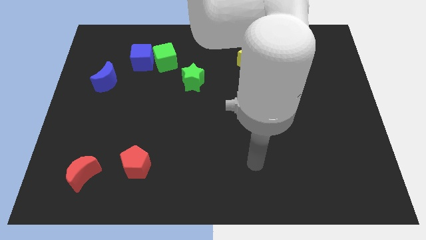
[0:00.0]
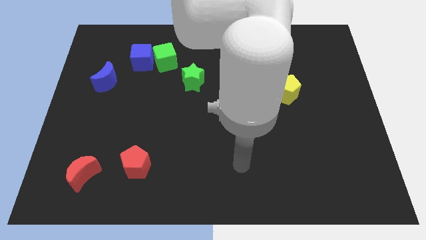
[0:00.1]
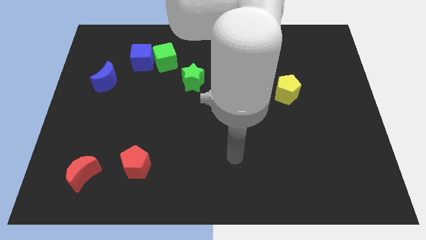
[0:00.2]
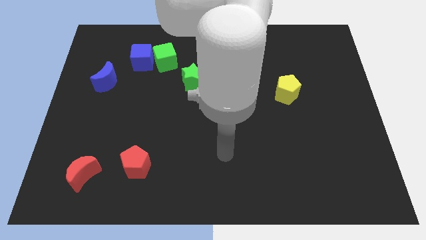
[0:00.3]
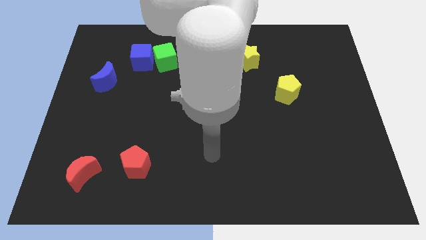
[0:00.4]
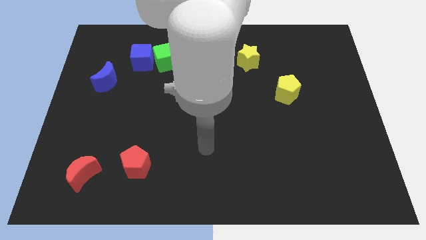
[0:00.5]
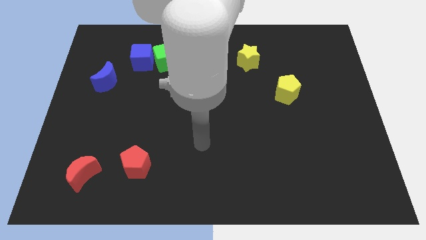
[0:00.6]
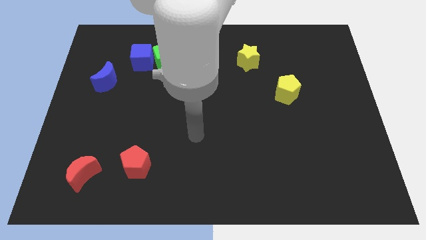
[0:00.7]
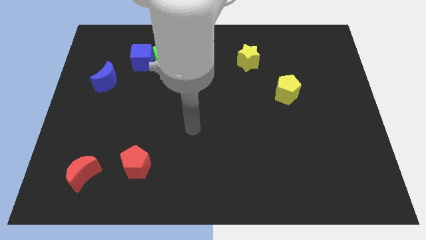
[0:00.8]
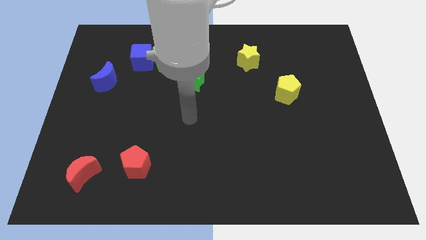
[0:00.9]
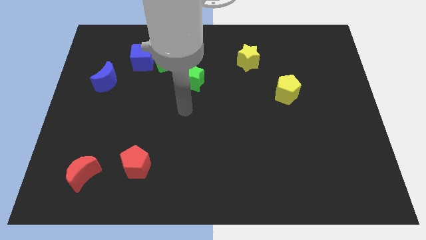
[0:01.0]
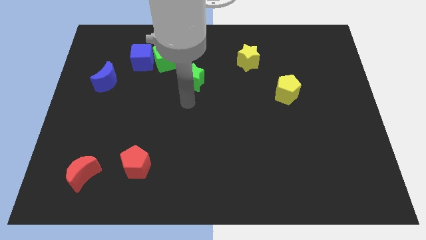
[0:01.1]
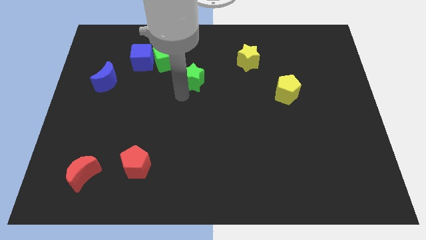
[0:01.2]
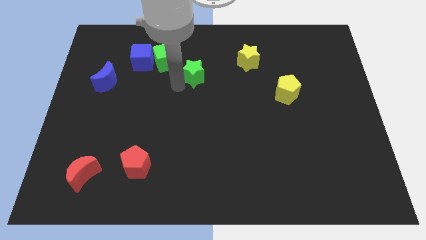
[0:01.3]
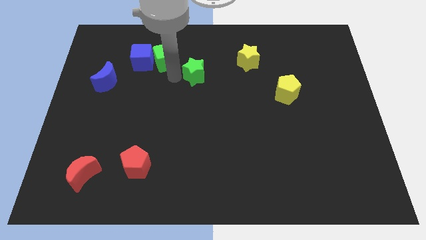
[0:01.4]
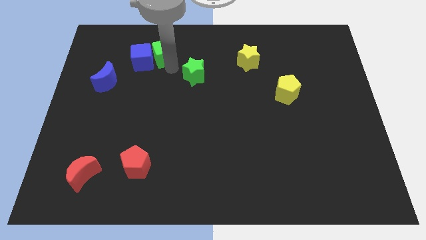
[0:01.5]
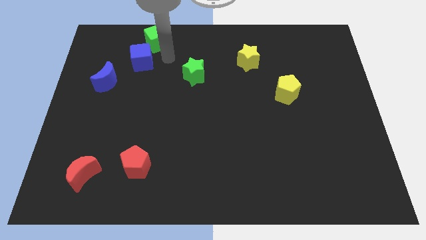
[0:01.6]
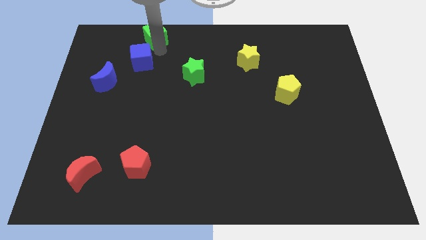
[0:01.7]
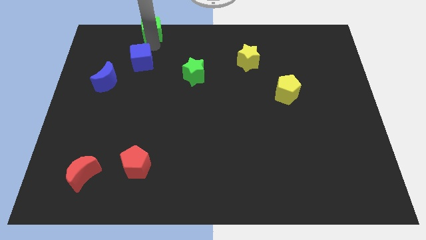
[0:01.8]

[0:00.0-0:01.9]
pull the blue cube apart from the green cube

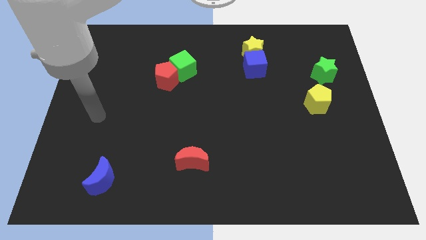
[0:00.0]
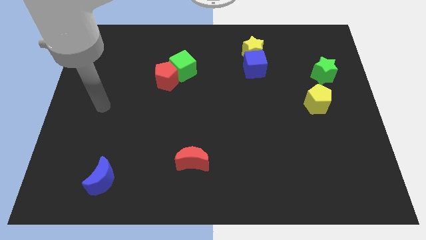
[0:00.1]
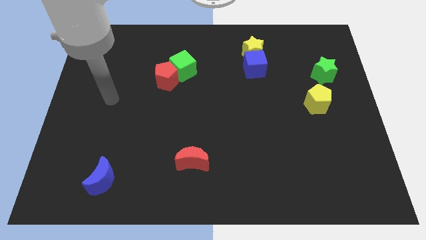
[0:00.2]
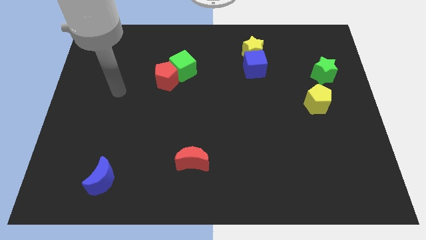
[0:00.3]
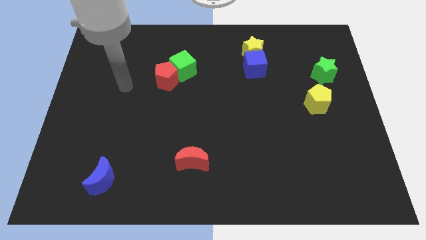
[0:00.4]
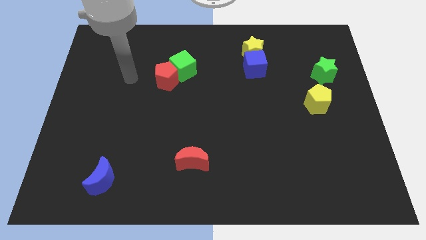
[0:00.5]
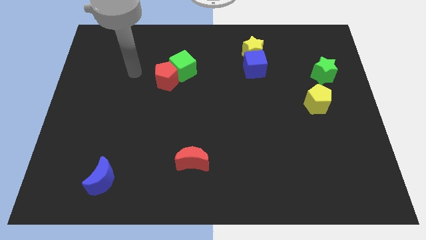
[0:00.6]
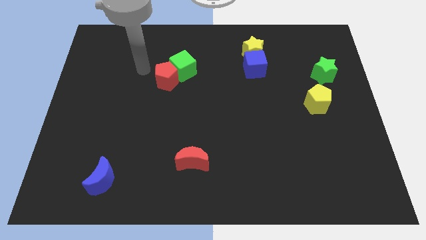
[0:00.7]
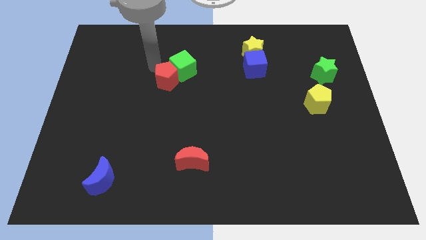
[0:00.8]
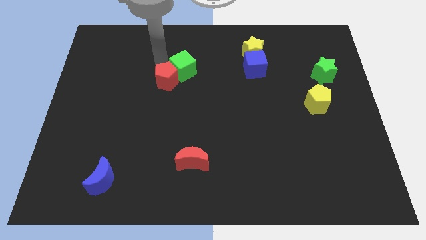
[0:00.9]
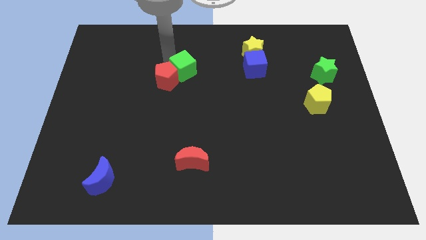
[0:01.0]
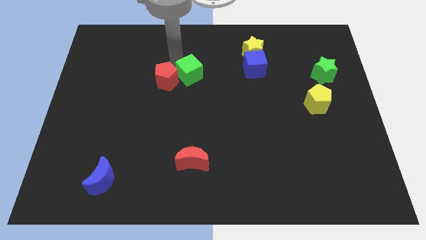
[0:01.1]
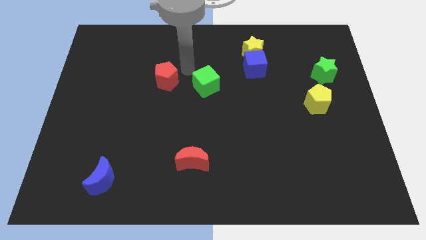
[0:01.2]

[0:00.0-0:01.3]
pull the red pentagon apart from the green cube

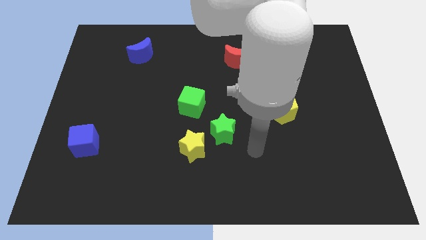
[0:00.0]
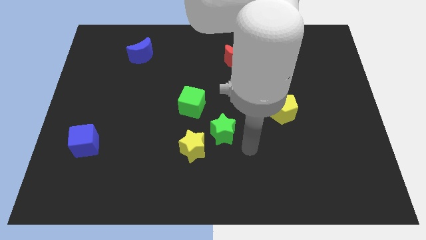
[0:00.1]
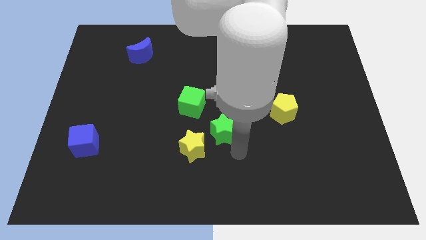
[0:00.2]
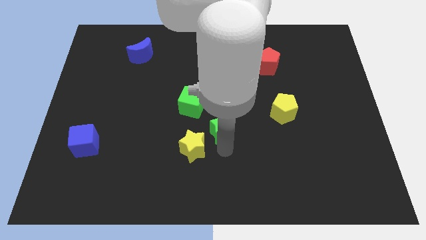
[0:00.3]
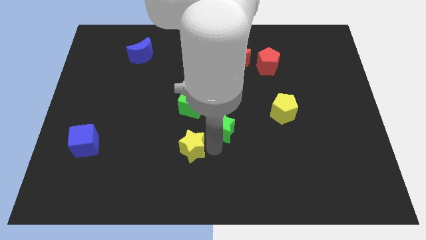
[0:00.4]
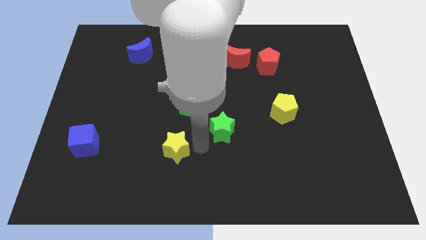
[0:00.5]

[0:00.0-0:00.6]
pull the green star apart from the yellow star

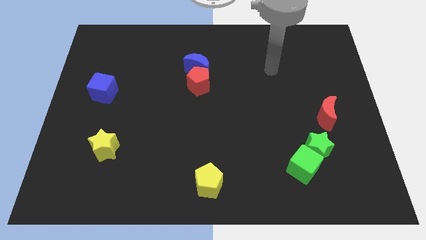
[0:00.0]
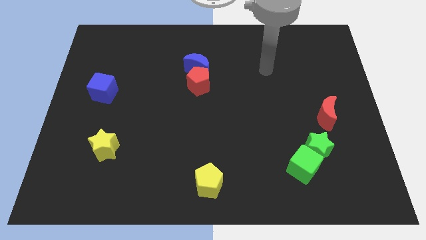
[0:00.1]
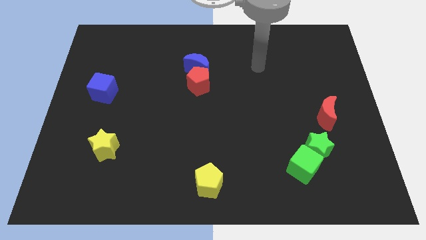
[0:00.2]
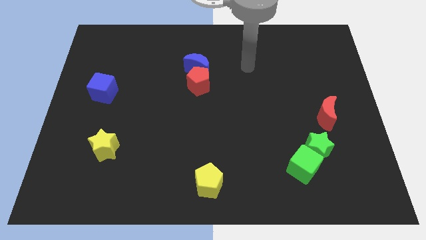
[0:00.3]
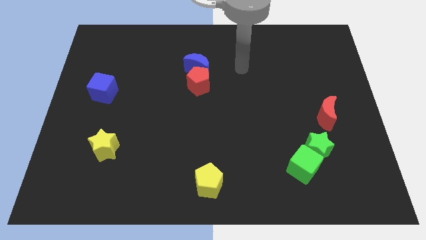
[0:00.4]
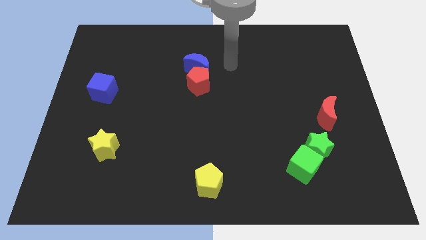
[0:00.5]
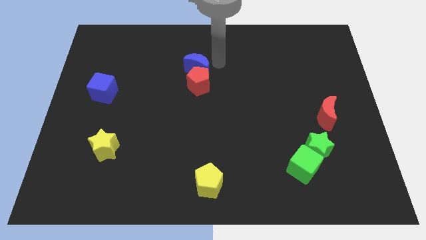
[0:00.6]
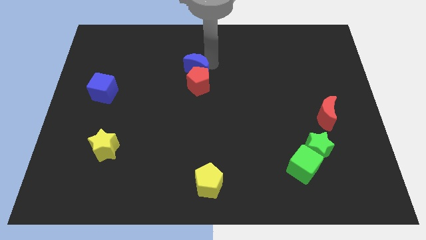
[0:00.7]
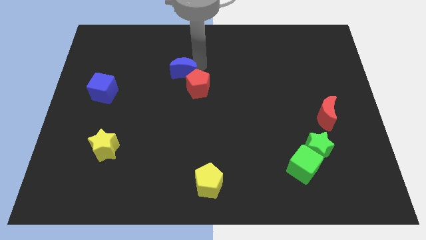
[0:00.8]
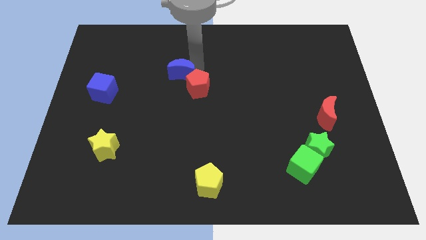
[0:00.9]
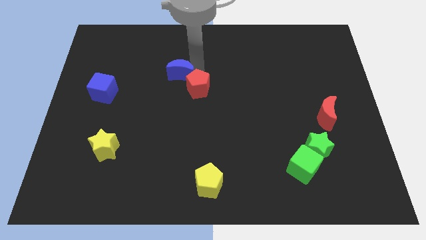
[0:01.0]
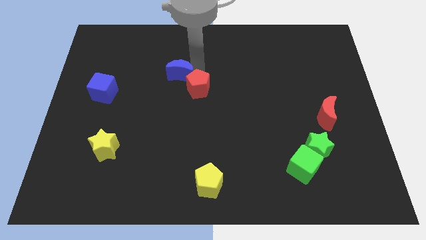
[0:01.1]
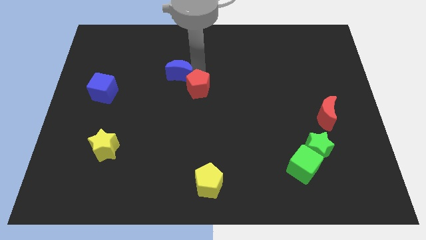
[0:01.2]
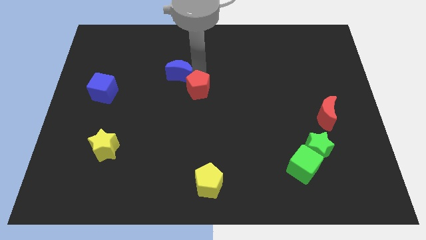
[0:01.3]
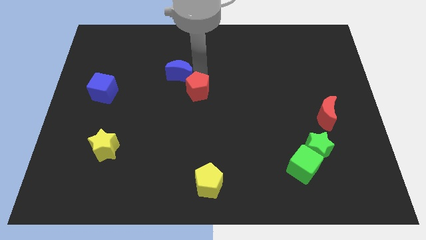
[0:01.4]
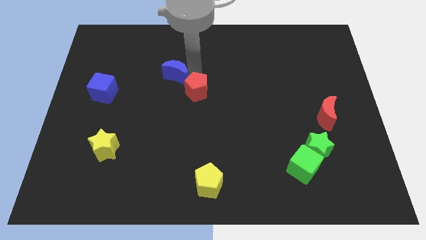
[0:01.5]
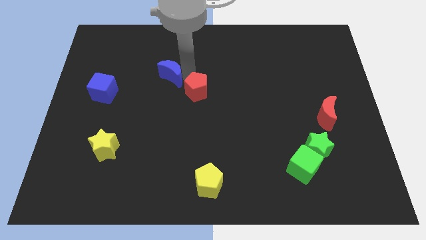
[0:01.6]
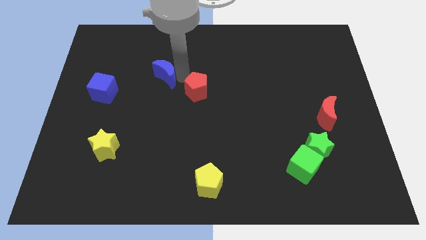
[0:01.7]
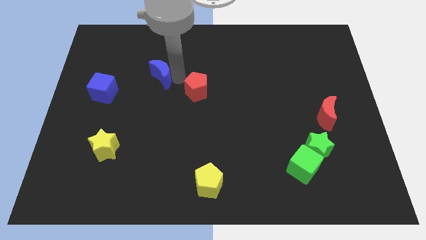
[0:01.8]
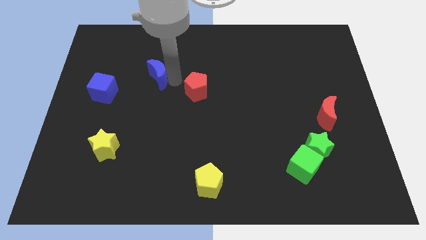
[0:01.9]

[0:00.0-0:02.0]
move the red pentagon away from the blue moon

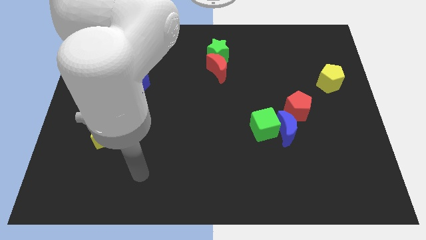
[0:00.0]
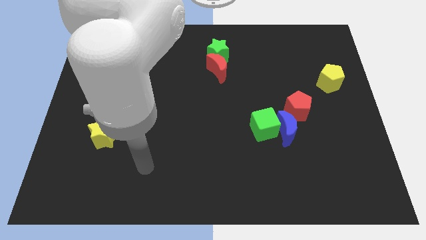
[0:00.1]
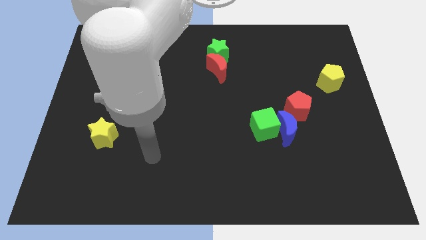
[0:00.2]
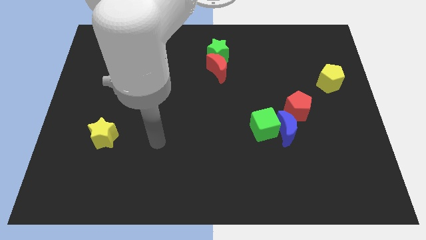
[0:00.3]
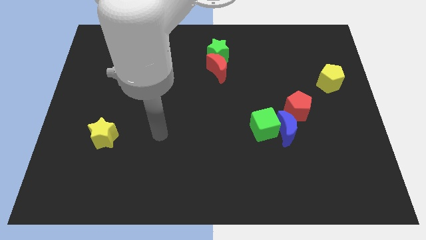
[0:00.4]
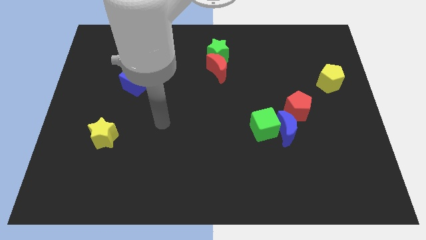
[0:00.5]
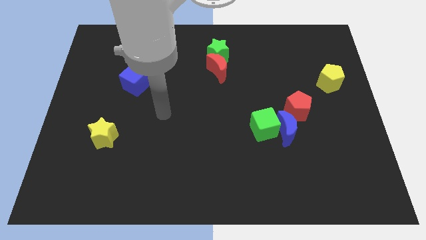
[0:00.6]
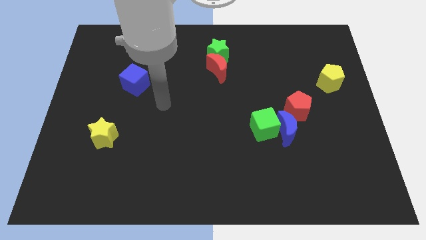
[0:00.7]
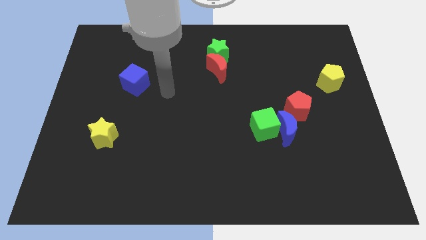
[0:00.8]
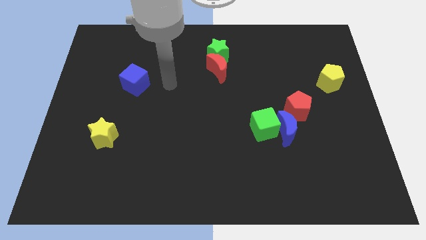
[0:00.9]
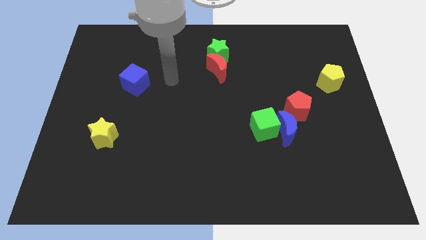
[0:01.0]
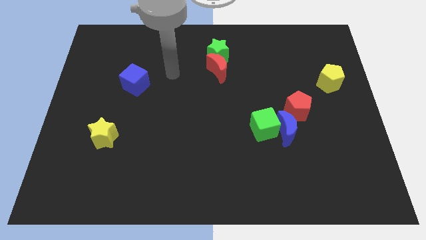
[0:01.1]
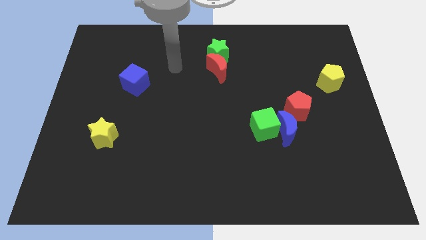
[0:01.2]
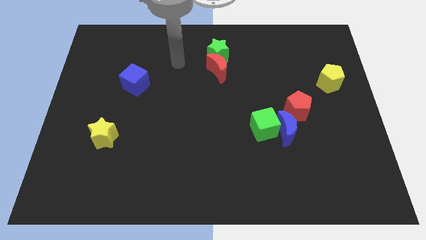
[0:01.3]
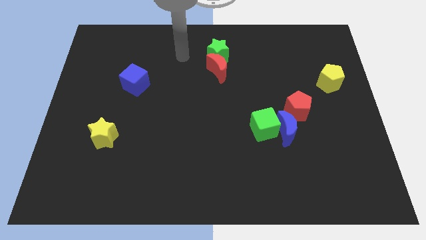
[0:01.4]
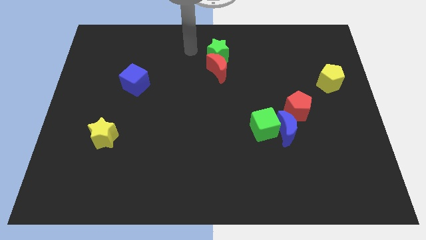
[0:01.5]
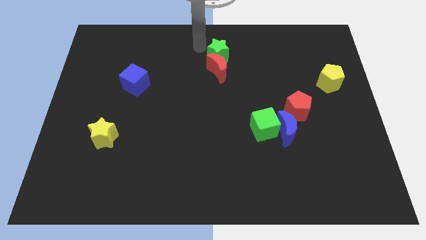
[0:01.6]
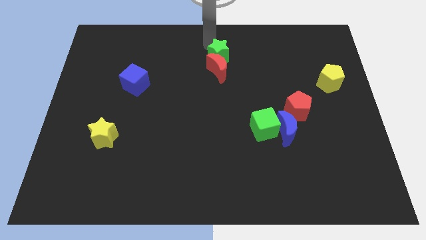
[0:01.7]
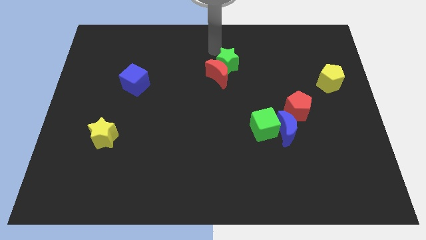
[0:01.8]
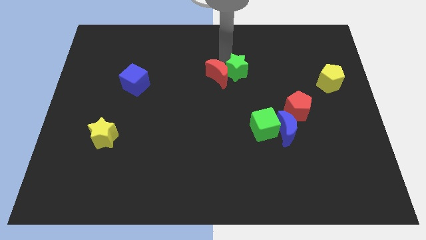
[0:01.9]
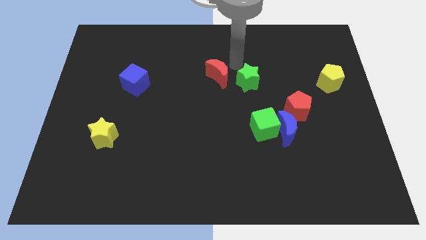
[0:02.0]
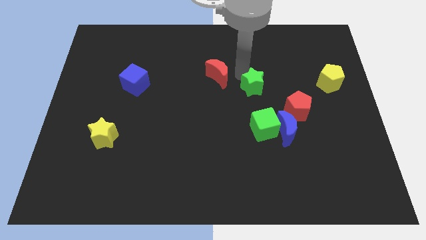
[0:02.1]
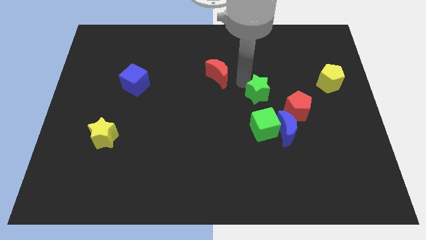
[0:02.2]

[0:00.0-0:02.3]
move the red moon away from the green star

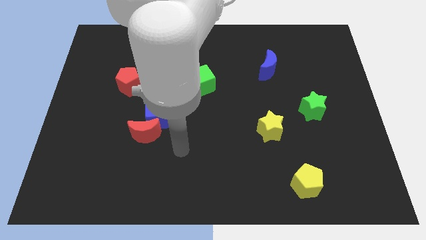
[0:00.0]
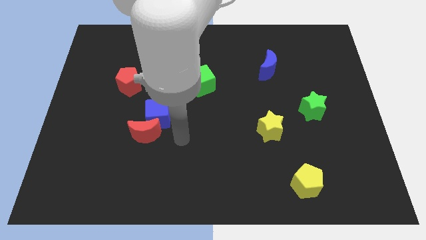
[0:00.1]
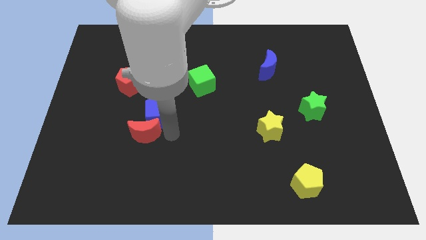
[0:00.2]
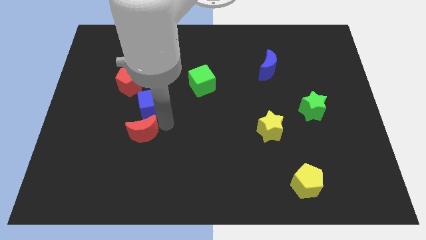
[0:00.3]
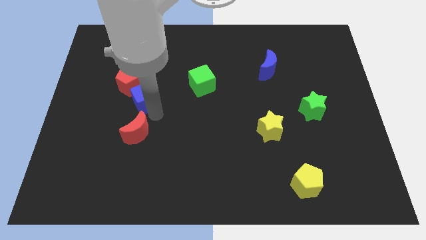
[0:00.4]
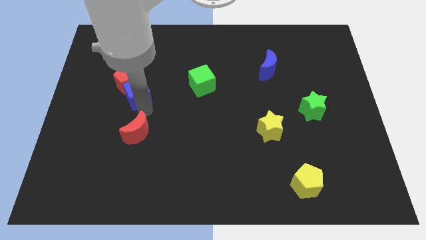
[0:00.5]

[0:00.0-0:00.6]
pull the red moon apart from the blue cube

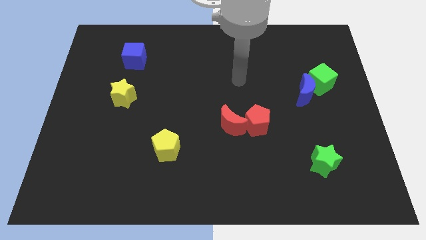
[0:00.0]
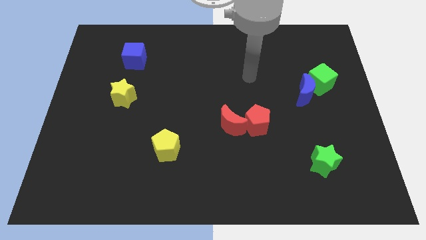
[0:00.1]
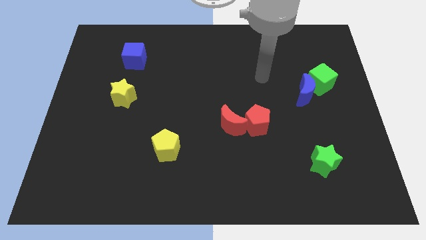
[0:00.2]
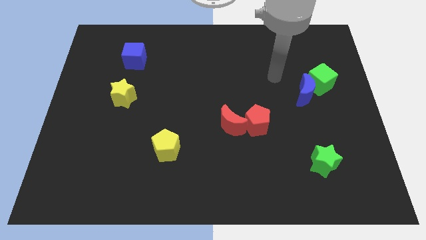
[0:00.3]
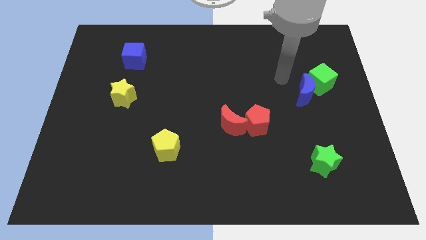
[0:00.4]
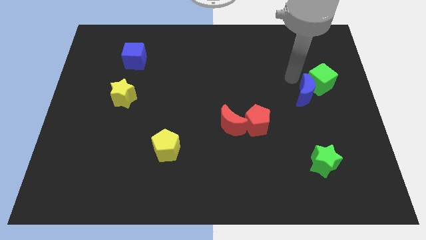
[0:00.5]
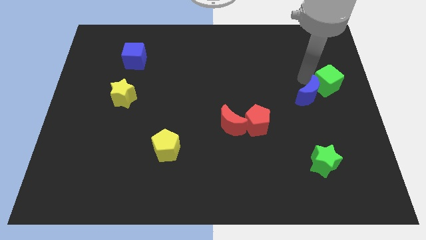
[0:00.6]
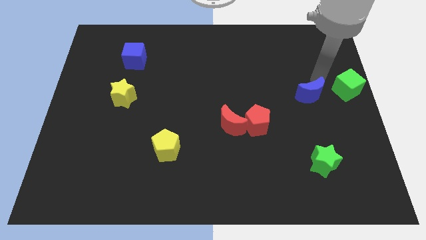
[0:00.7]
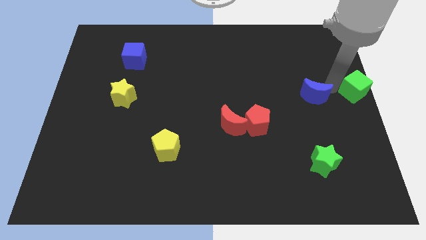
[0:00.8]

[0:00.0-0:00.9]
move the blue moon away from the green cube
